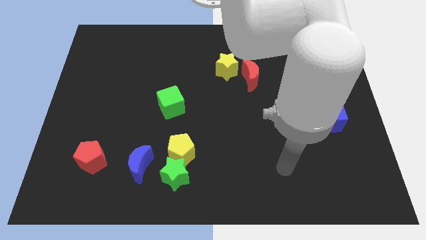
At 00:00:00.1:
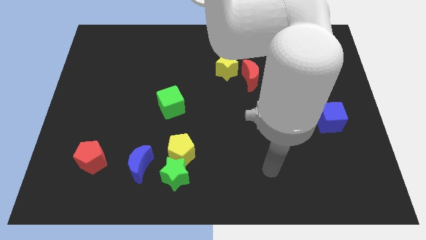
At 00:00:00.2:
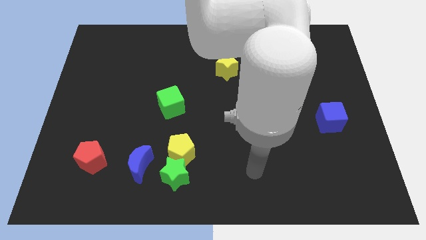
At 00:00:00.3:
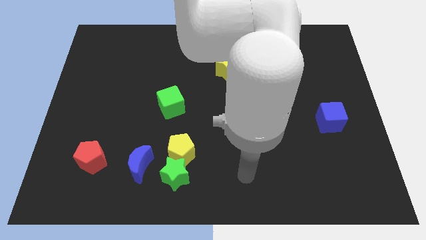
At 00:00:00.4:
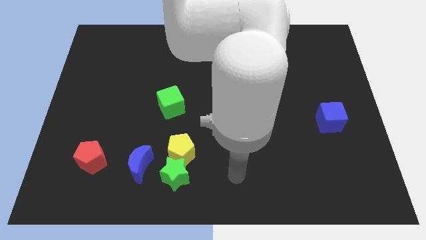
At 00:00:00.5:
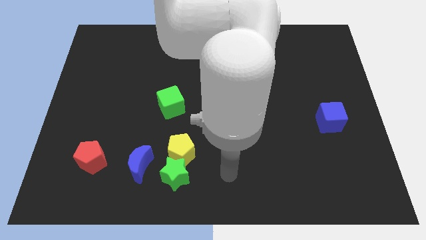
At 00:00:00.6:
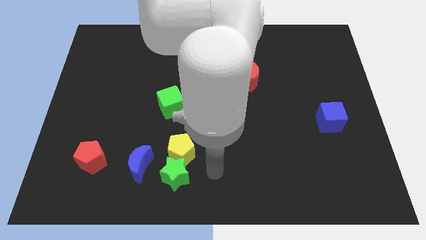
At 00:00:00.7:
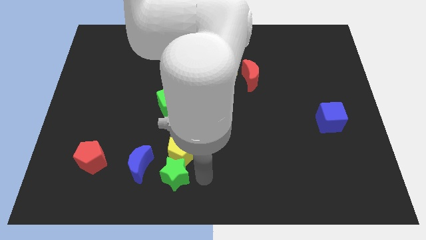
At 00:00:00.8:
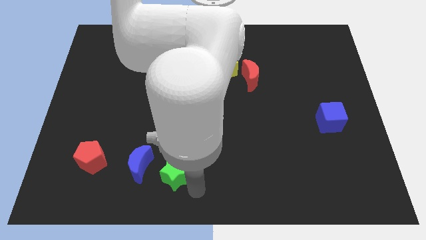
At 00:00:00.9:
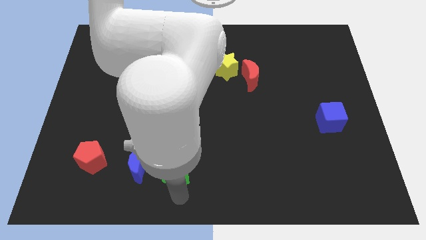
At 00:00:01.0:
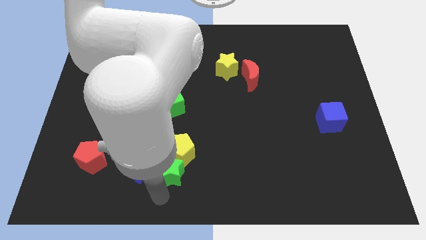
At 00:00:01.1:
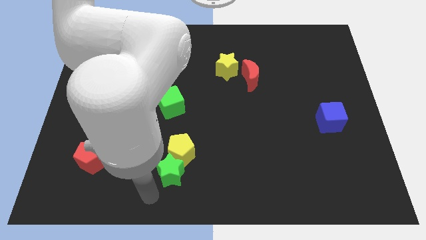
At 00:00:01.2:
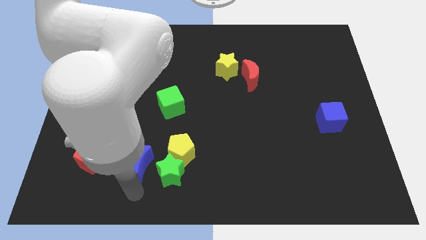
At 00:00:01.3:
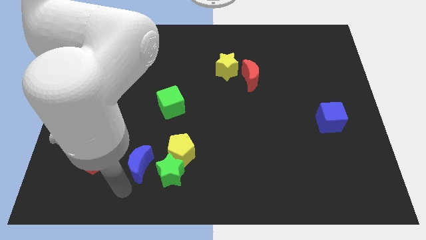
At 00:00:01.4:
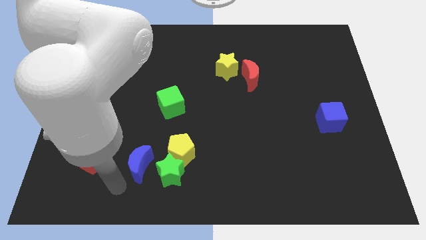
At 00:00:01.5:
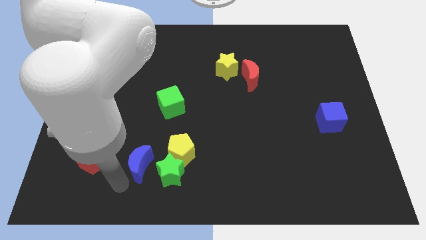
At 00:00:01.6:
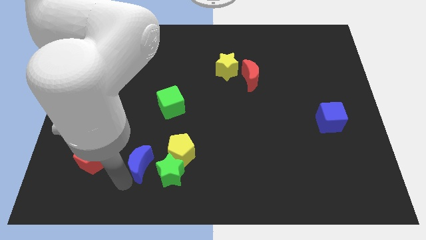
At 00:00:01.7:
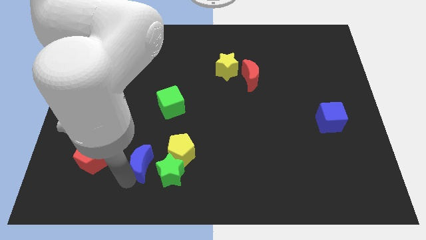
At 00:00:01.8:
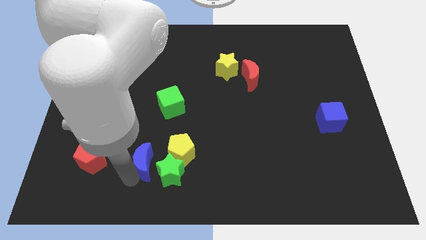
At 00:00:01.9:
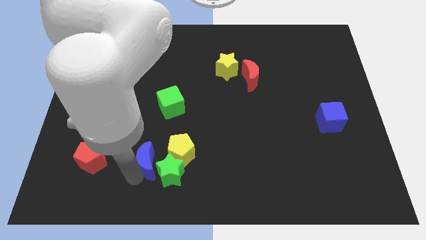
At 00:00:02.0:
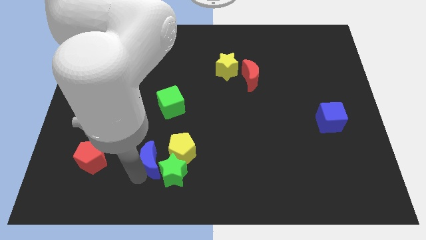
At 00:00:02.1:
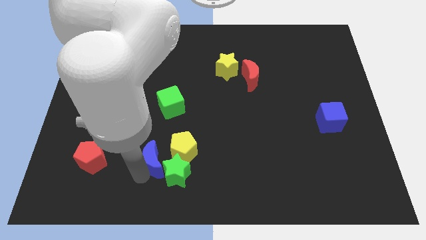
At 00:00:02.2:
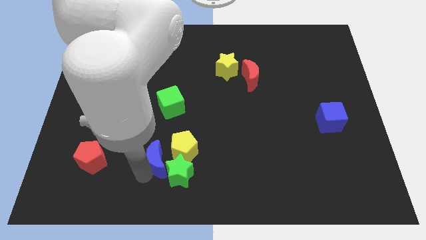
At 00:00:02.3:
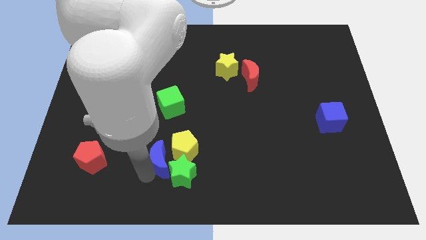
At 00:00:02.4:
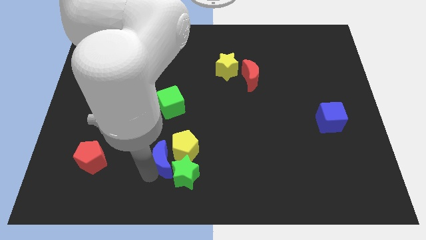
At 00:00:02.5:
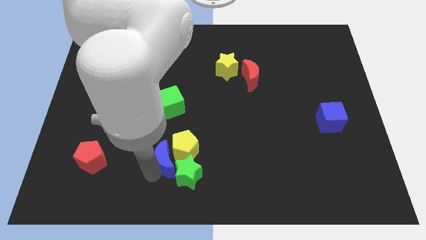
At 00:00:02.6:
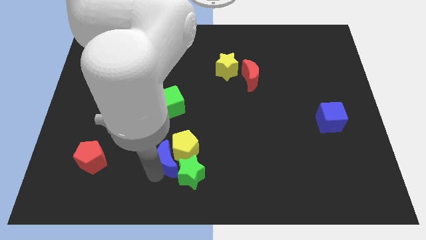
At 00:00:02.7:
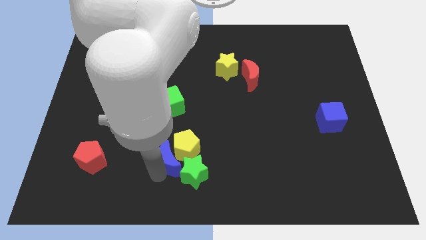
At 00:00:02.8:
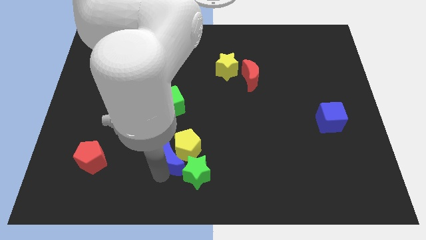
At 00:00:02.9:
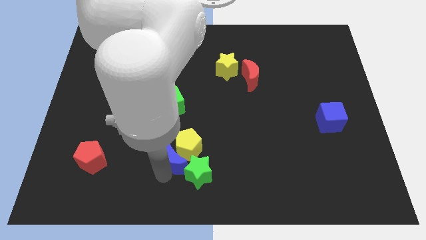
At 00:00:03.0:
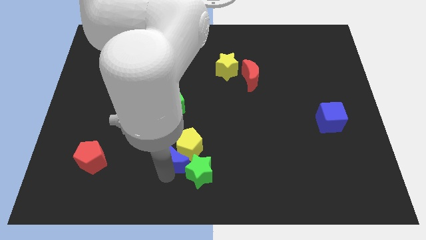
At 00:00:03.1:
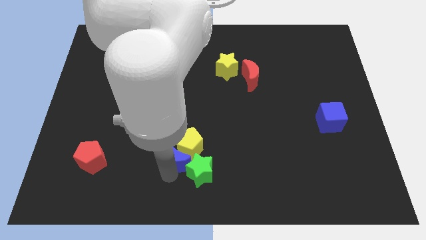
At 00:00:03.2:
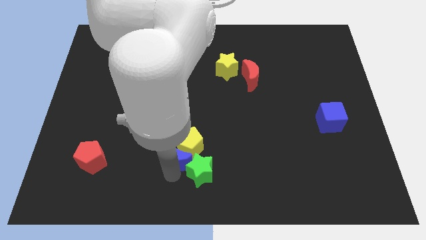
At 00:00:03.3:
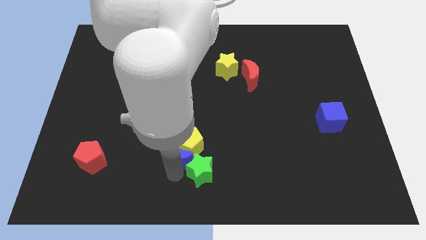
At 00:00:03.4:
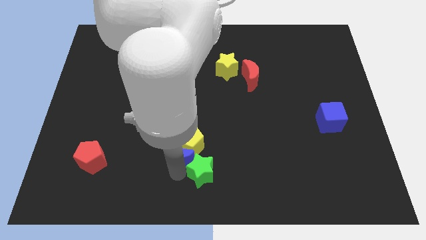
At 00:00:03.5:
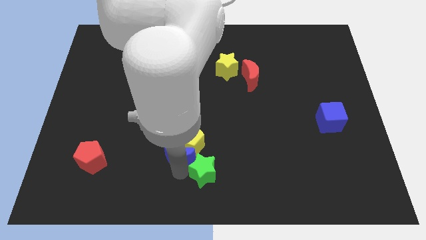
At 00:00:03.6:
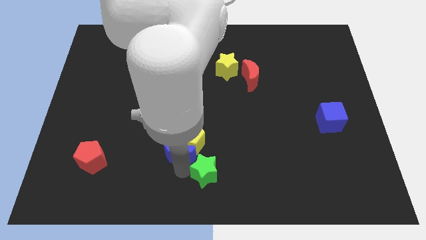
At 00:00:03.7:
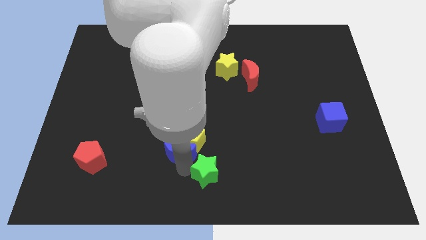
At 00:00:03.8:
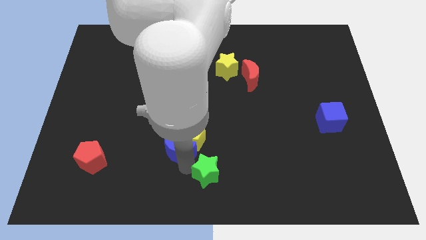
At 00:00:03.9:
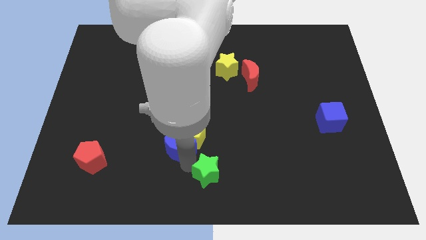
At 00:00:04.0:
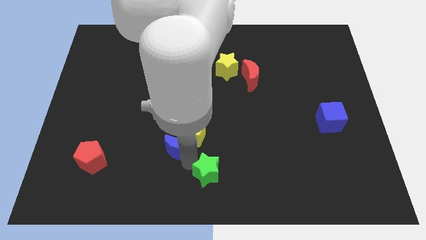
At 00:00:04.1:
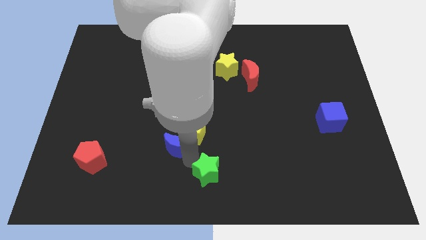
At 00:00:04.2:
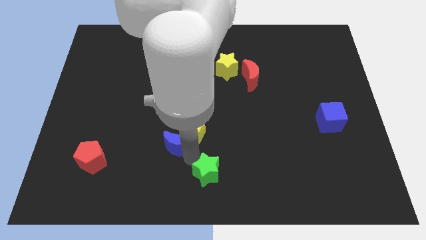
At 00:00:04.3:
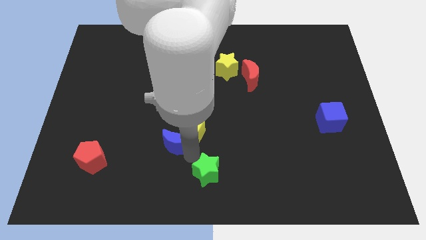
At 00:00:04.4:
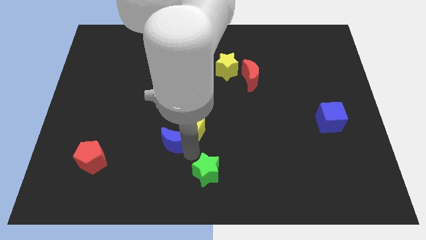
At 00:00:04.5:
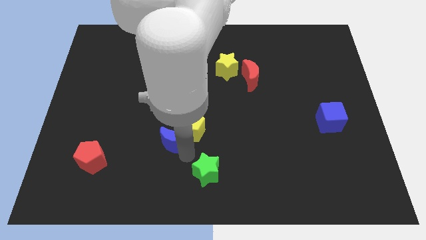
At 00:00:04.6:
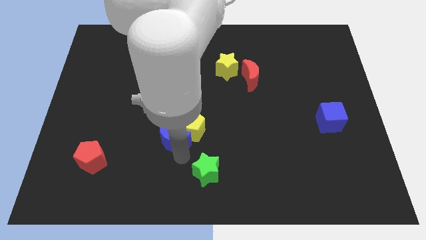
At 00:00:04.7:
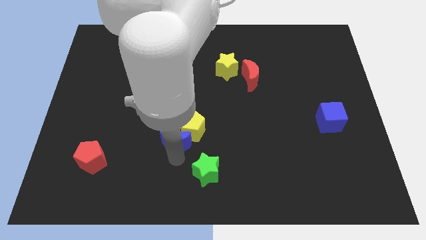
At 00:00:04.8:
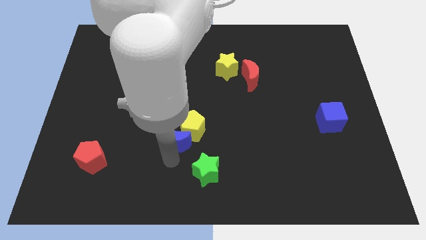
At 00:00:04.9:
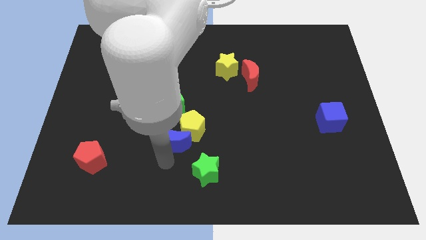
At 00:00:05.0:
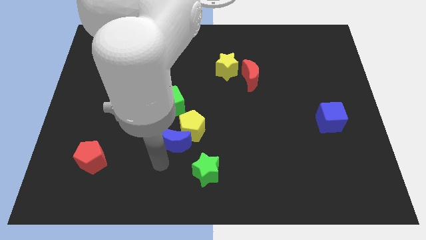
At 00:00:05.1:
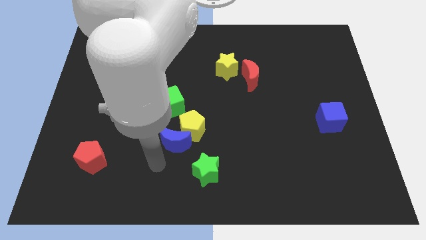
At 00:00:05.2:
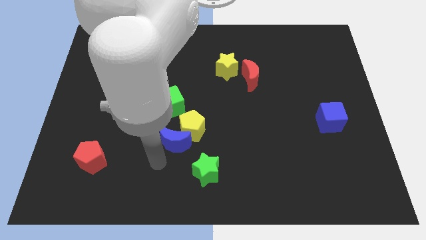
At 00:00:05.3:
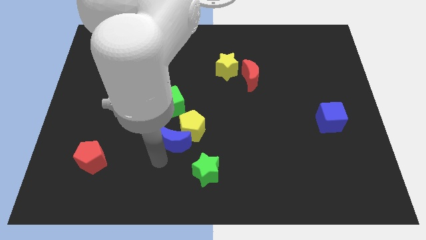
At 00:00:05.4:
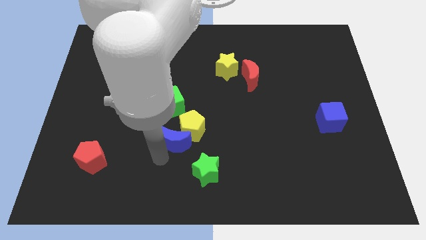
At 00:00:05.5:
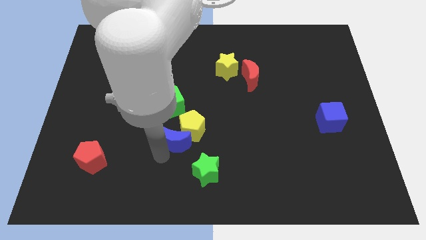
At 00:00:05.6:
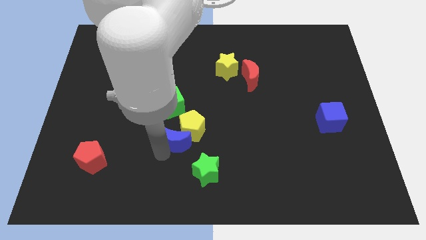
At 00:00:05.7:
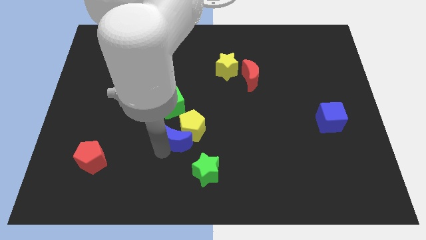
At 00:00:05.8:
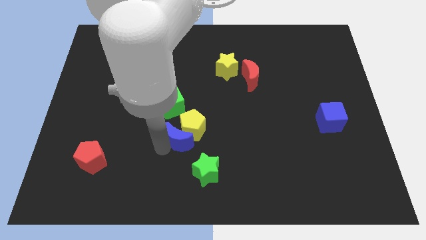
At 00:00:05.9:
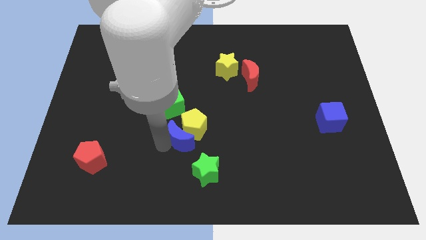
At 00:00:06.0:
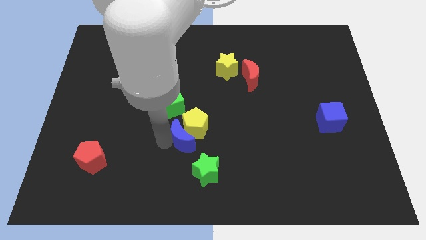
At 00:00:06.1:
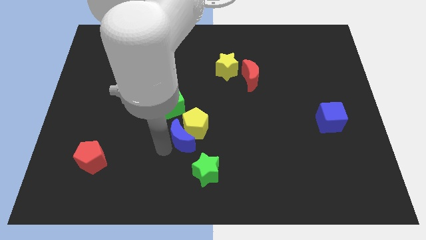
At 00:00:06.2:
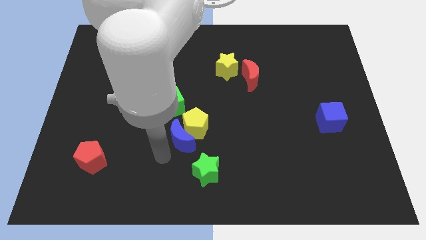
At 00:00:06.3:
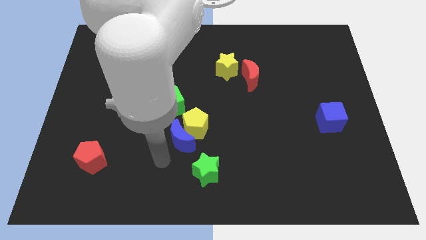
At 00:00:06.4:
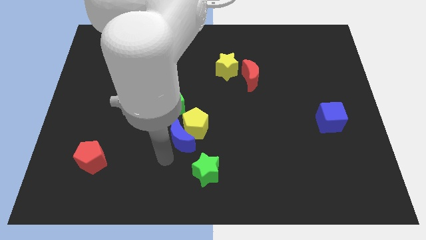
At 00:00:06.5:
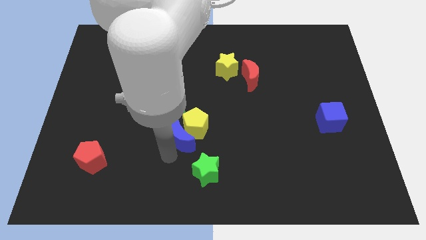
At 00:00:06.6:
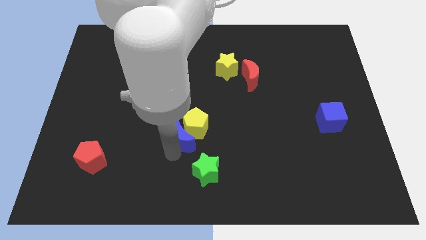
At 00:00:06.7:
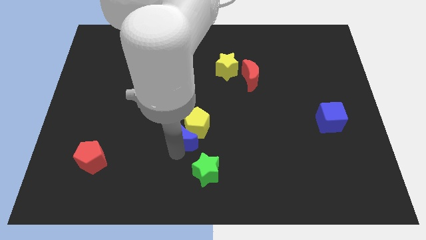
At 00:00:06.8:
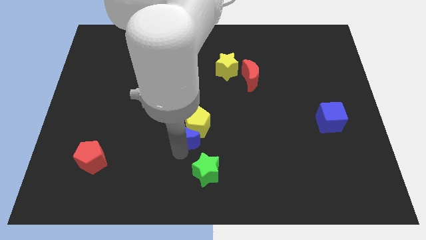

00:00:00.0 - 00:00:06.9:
push the blue moon to the middle
